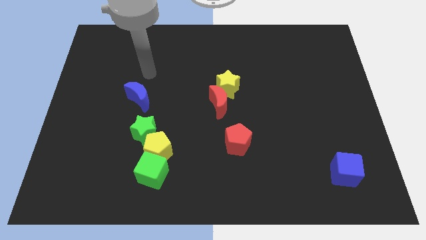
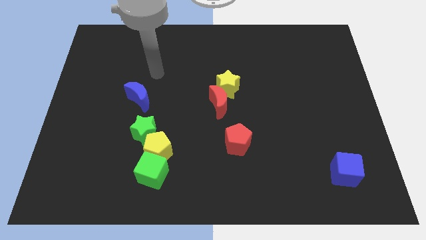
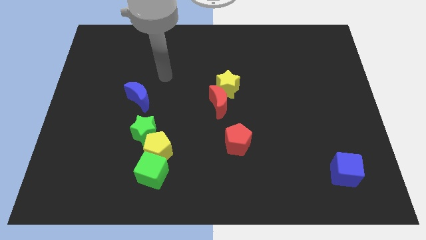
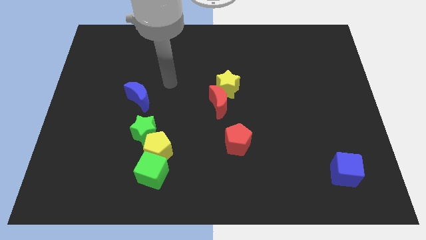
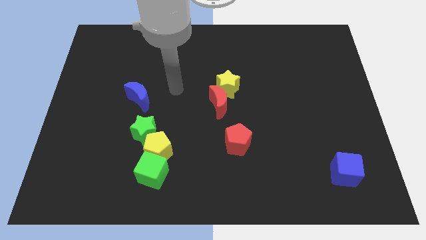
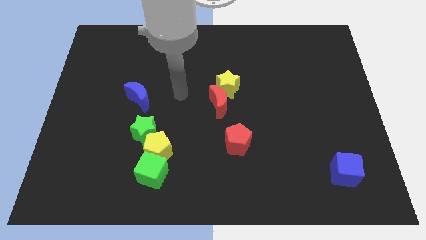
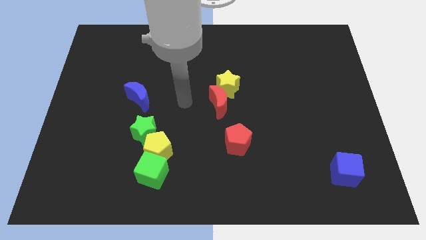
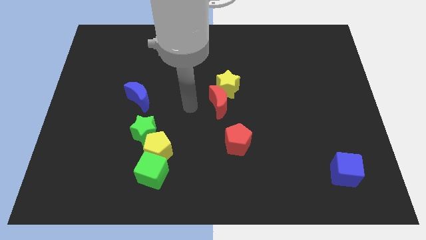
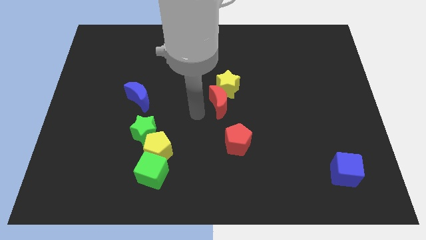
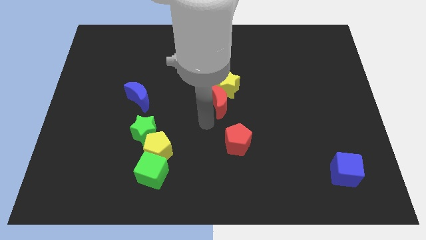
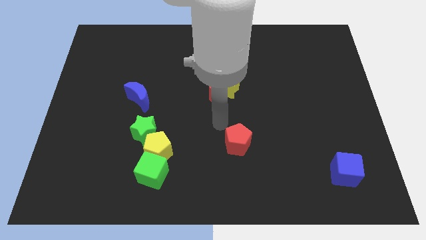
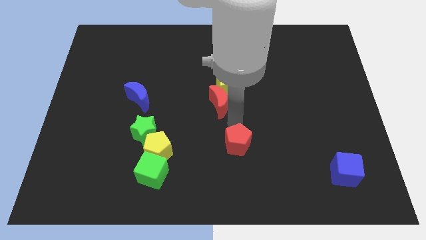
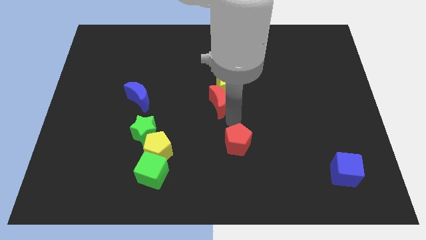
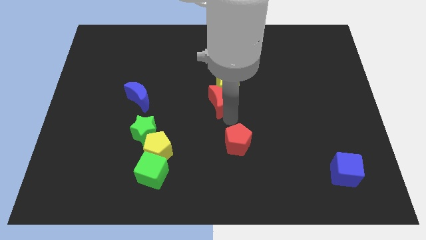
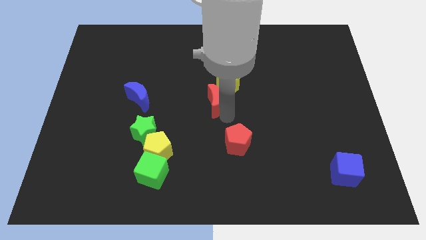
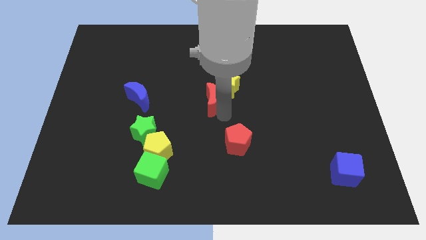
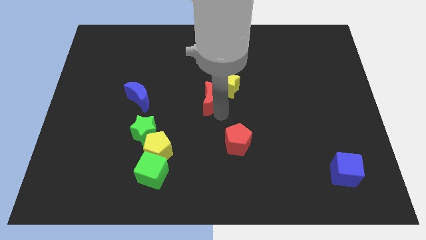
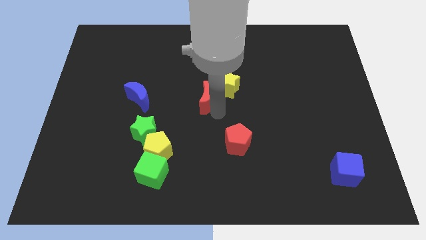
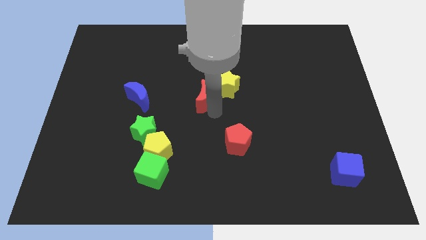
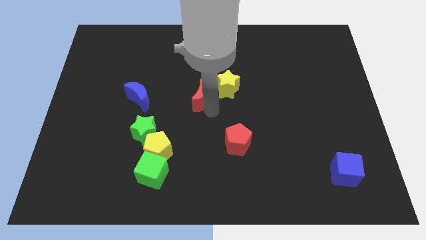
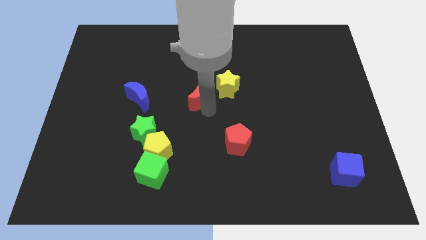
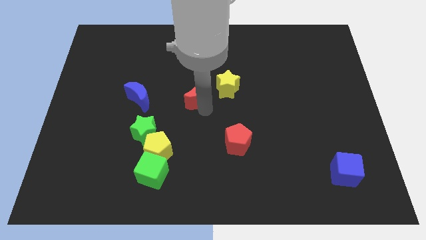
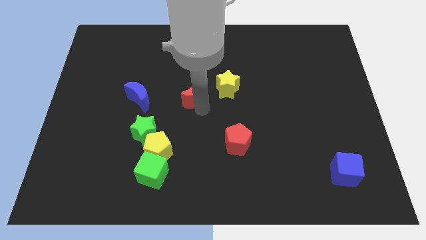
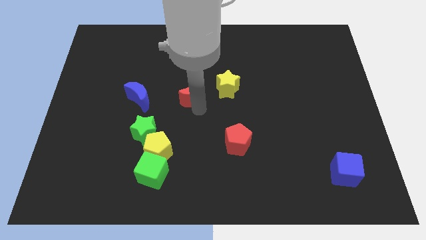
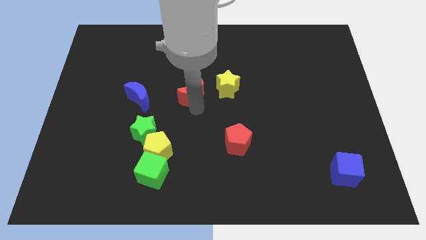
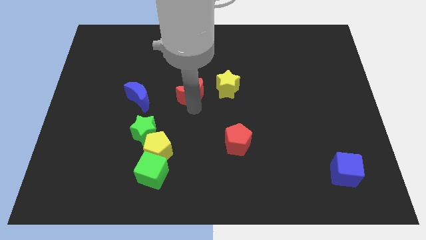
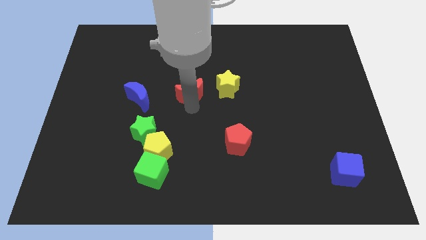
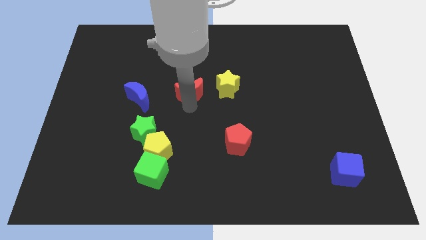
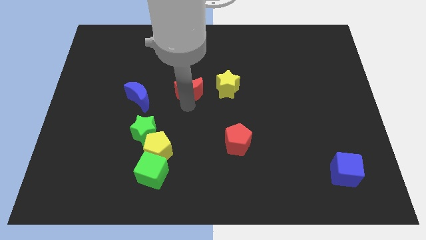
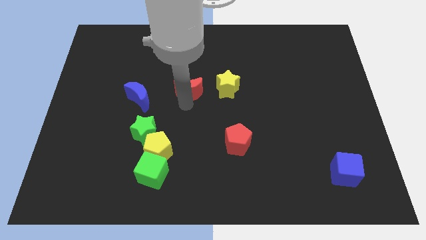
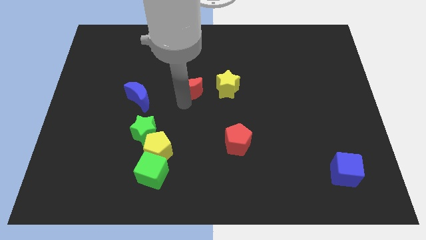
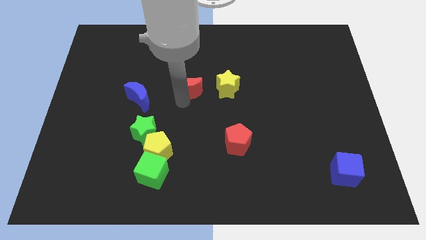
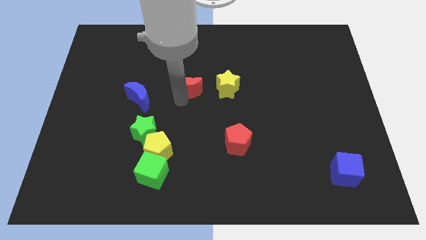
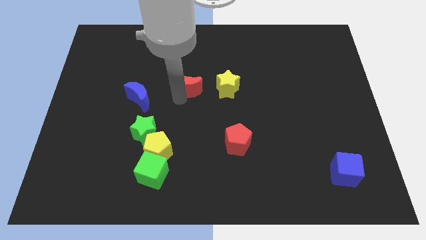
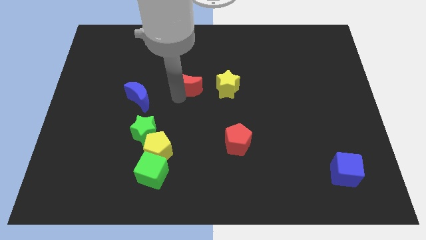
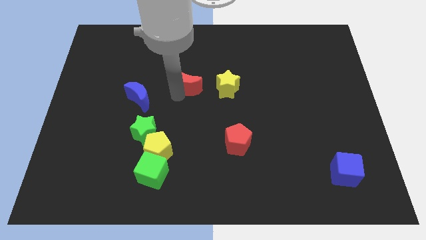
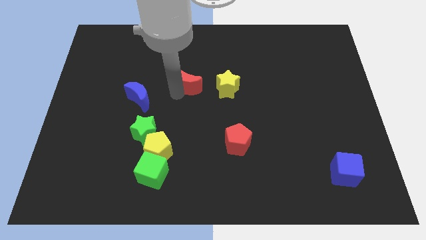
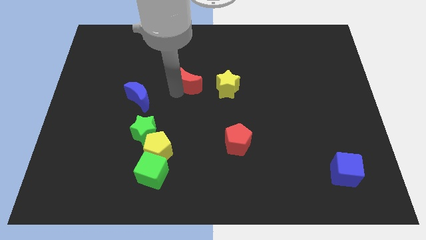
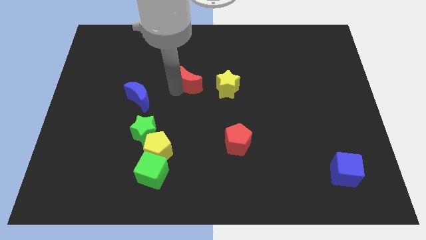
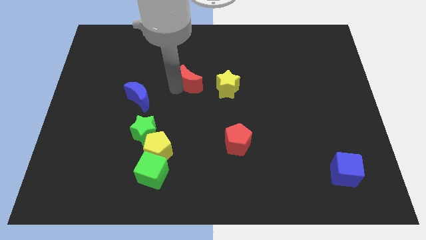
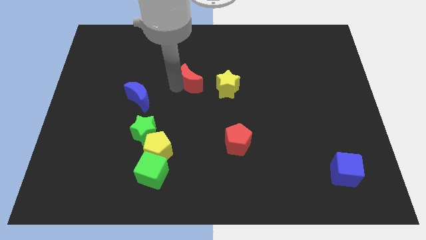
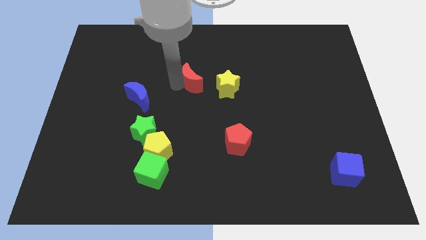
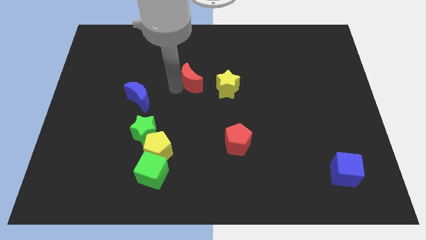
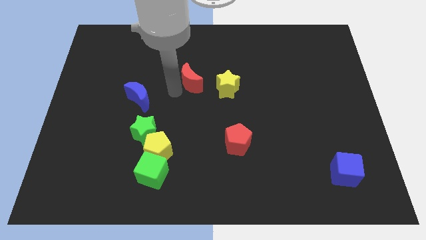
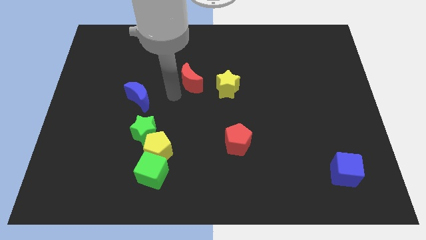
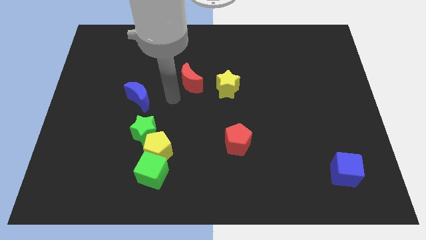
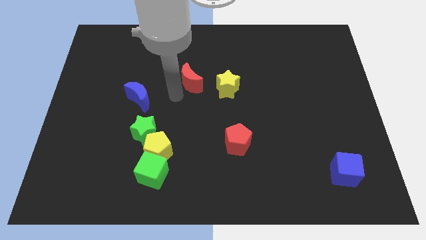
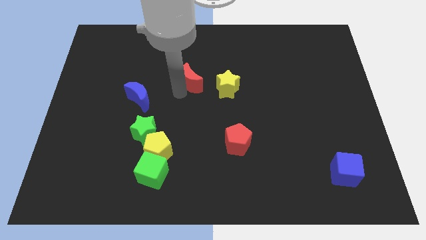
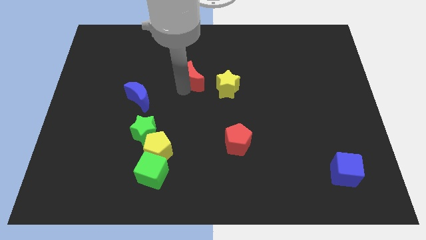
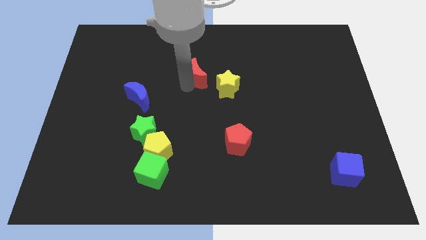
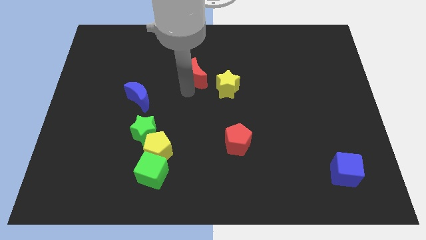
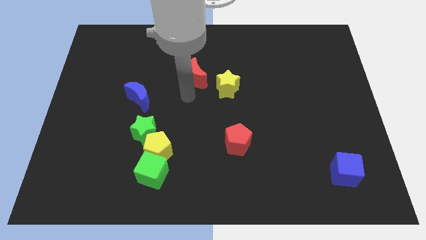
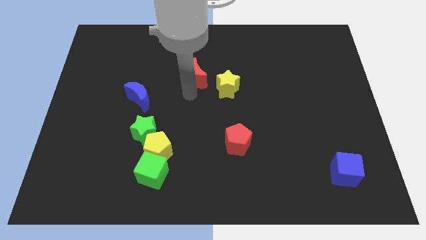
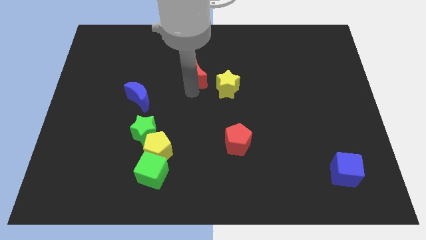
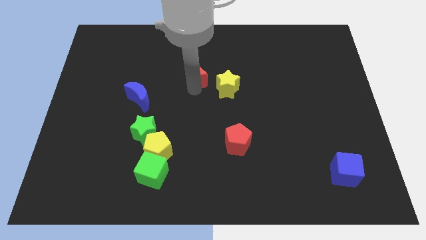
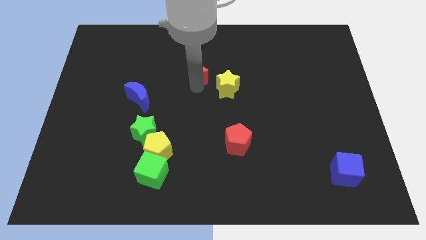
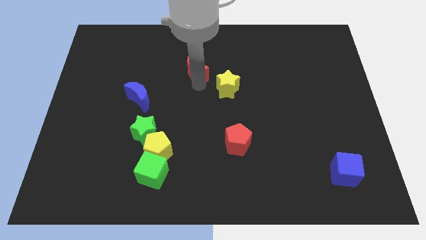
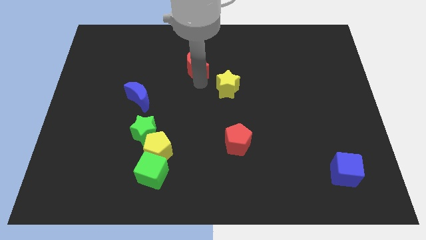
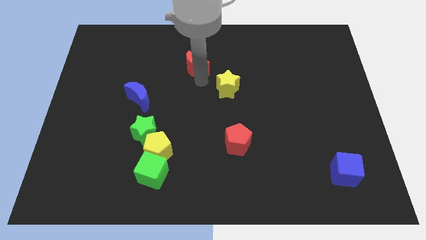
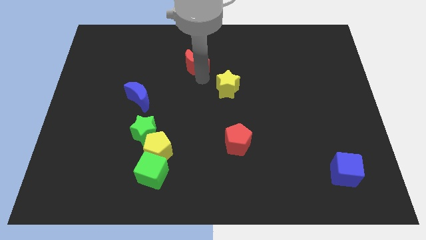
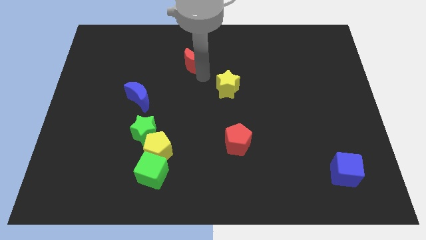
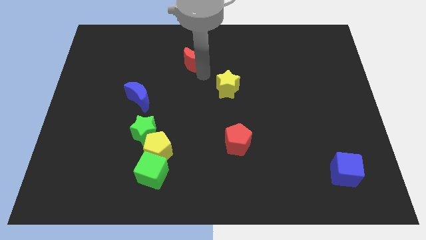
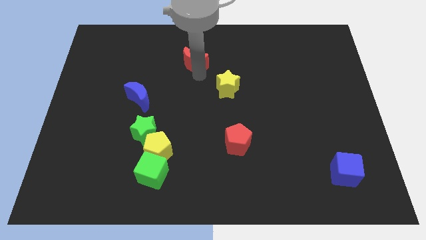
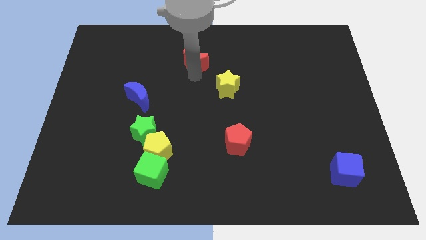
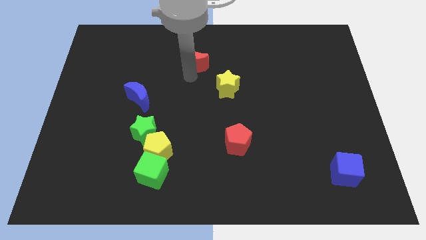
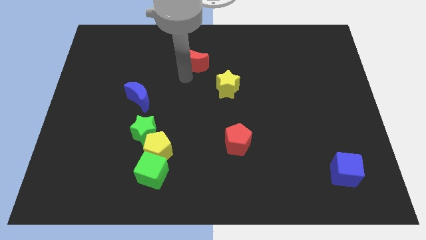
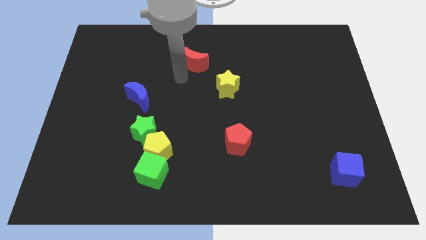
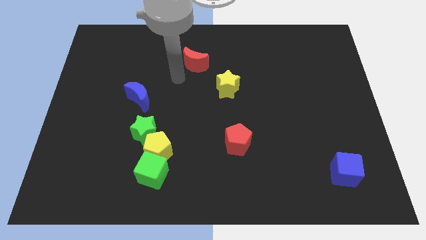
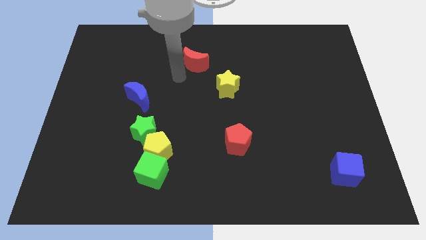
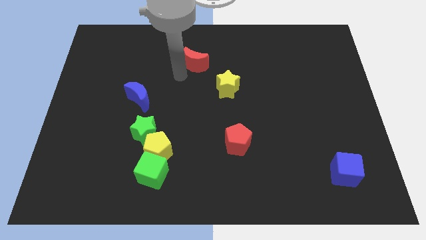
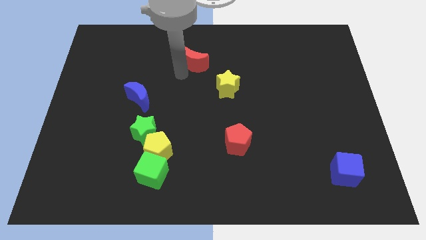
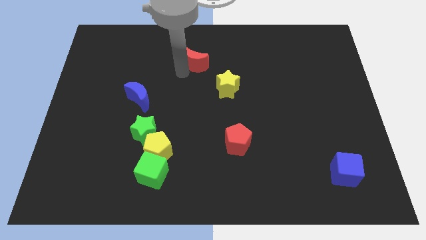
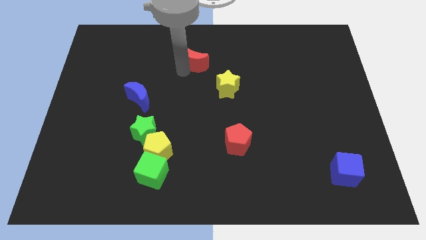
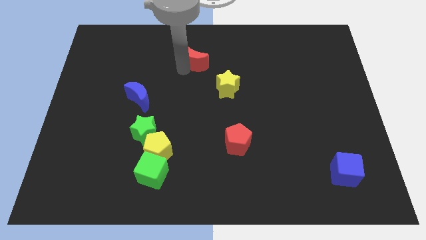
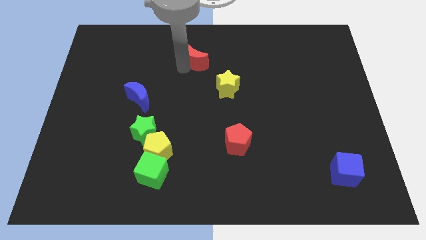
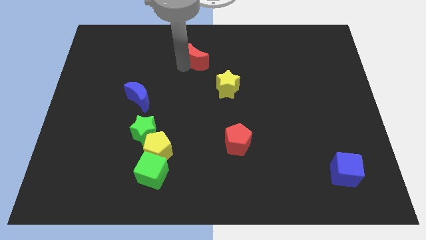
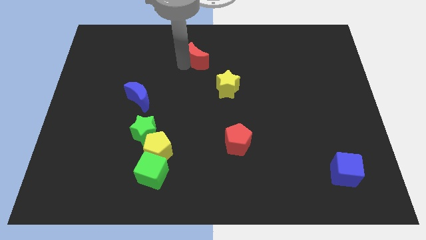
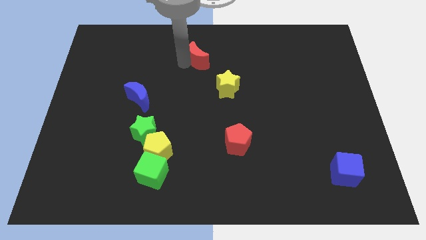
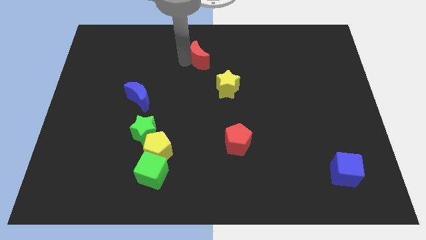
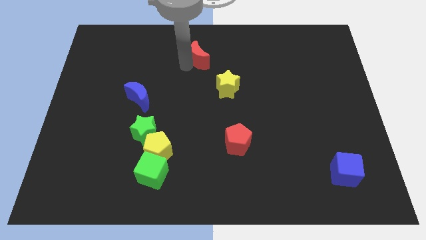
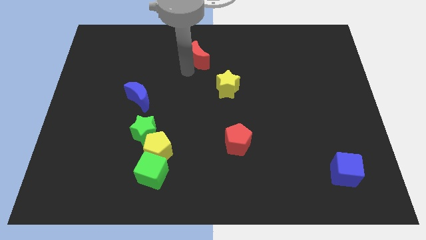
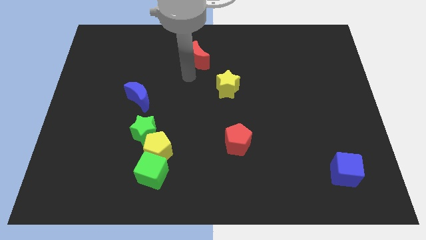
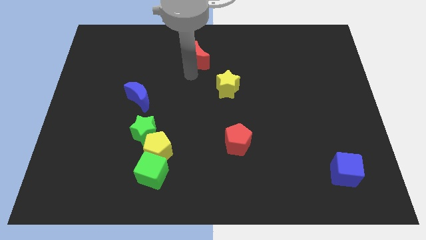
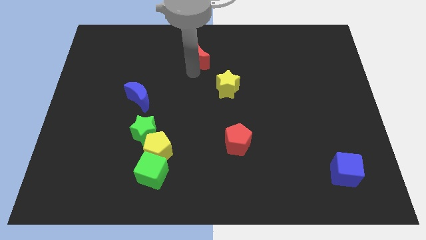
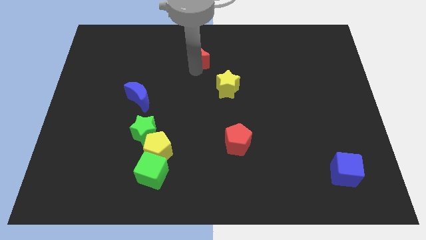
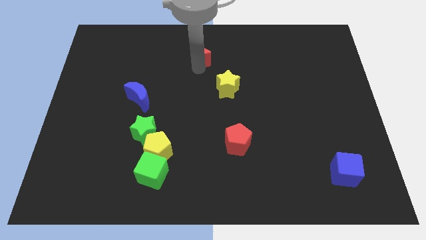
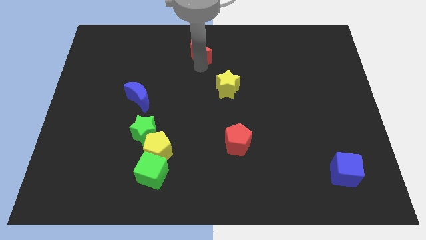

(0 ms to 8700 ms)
move the red moon to the towards your base
